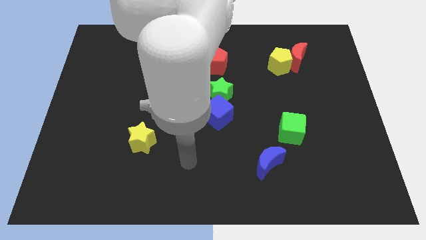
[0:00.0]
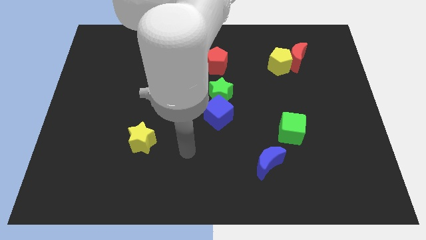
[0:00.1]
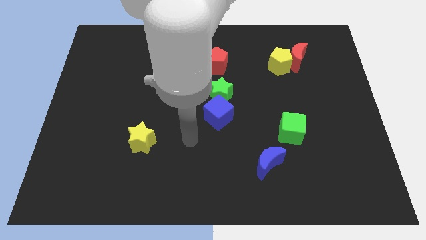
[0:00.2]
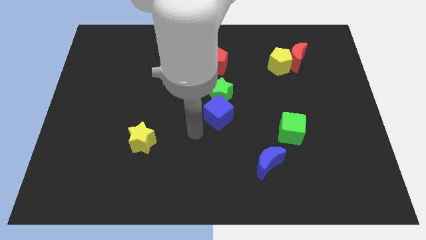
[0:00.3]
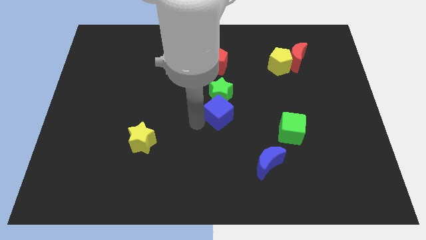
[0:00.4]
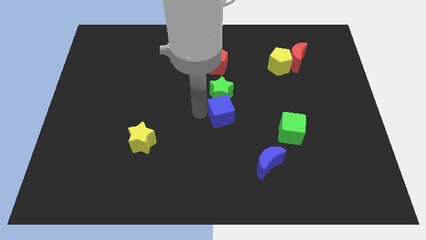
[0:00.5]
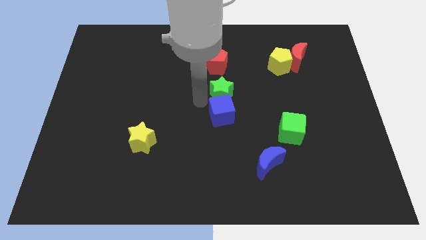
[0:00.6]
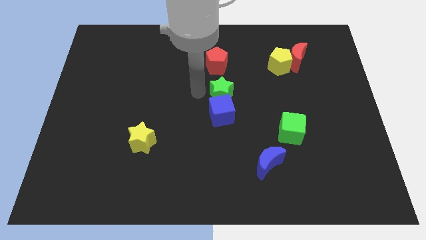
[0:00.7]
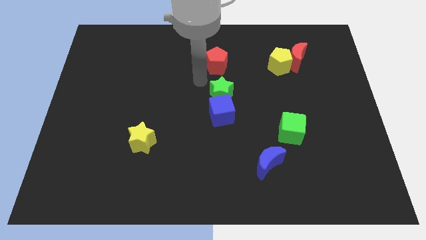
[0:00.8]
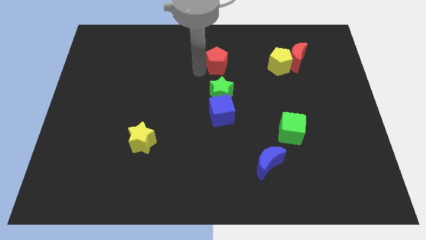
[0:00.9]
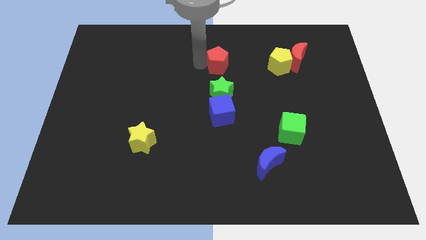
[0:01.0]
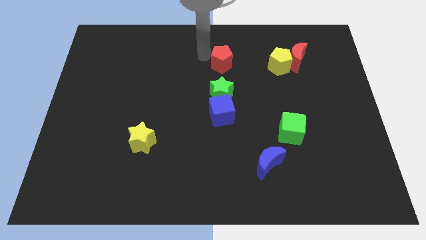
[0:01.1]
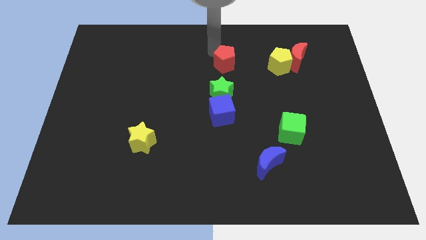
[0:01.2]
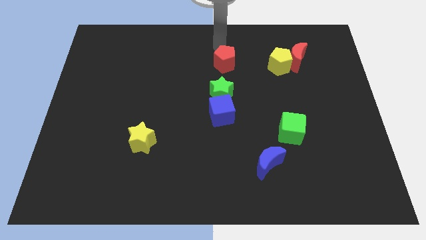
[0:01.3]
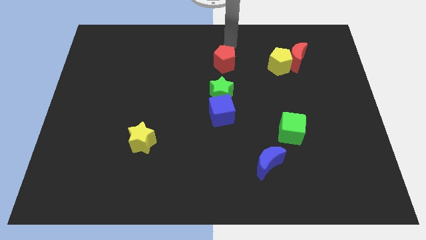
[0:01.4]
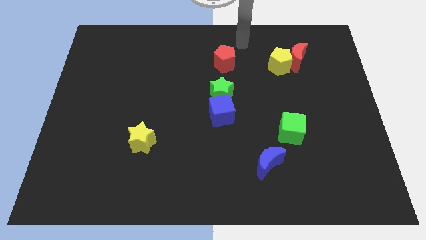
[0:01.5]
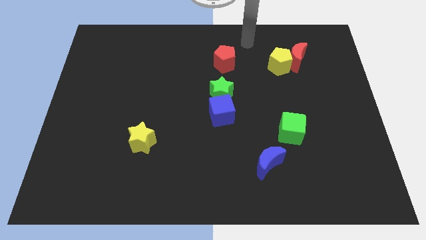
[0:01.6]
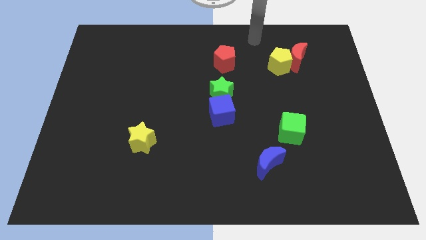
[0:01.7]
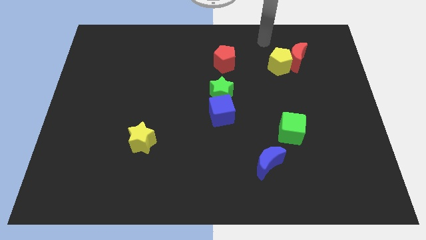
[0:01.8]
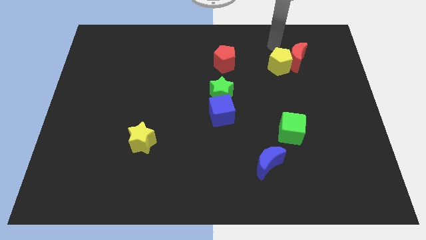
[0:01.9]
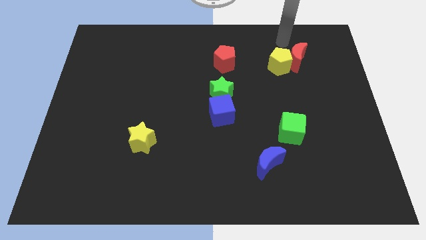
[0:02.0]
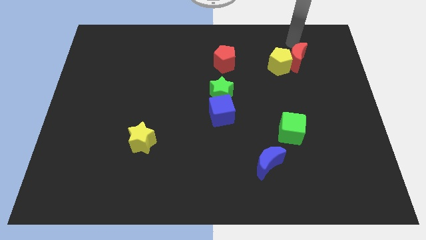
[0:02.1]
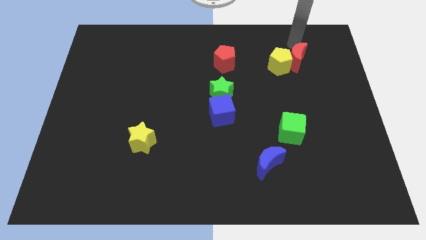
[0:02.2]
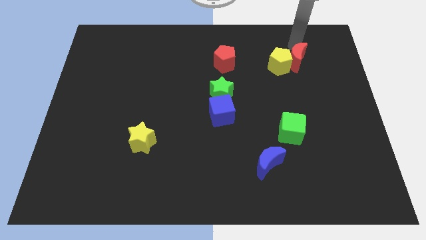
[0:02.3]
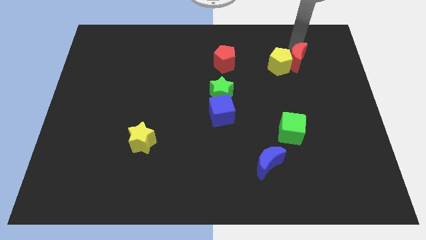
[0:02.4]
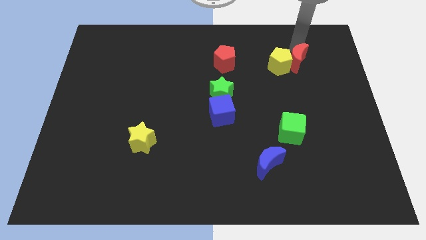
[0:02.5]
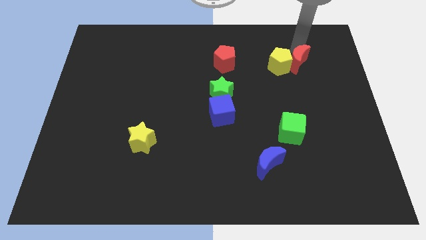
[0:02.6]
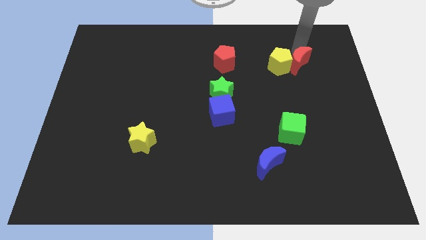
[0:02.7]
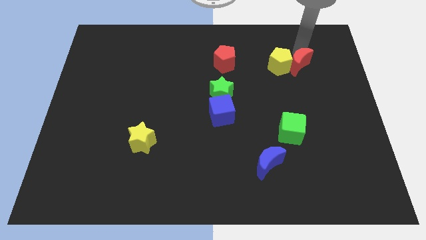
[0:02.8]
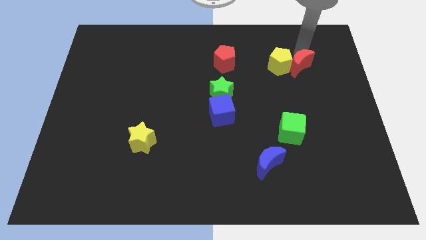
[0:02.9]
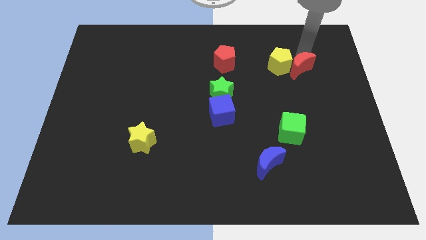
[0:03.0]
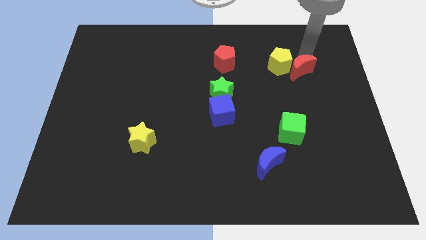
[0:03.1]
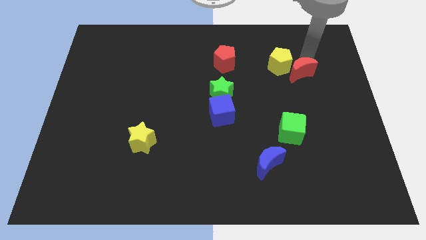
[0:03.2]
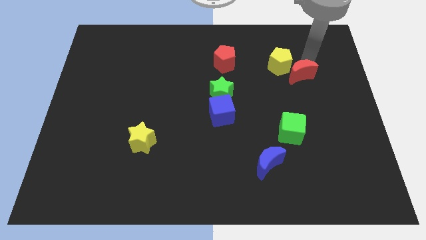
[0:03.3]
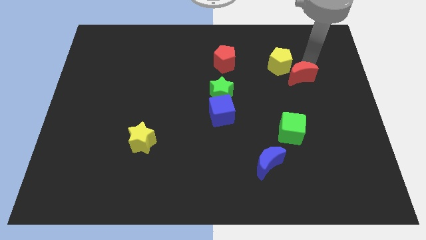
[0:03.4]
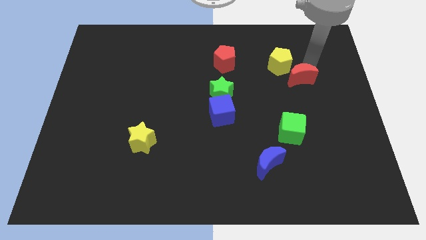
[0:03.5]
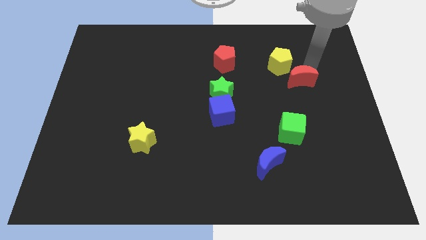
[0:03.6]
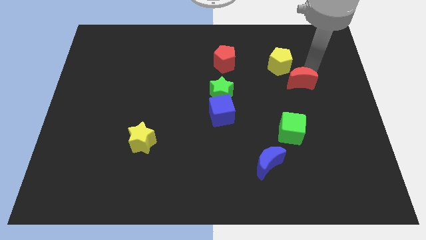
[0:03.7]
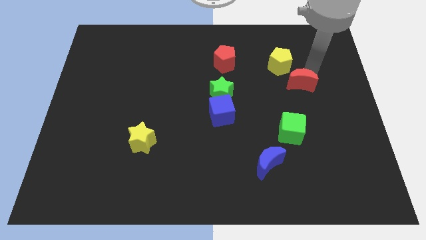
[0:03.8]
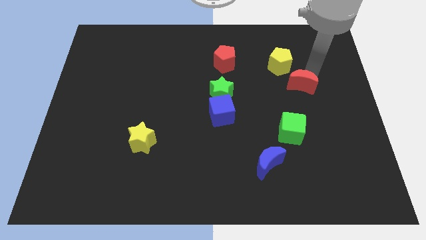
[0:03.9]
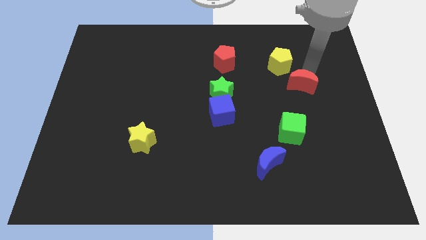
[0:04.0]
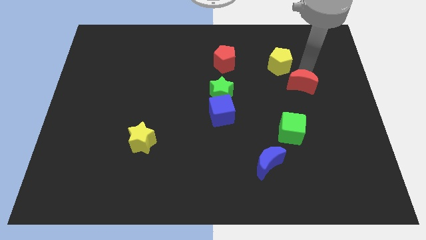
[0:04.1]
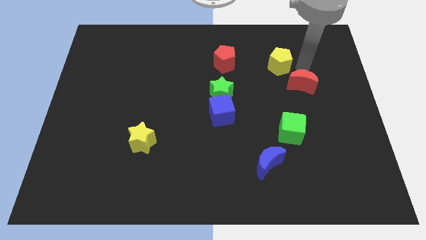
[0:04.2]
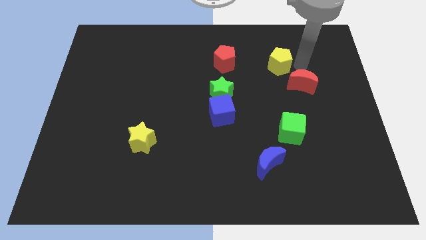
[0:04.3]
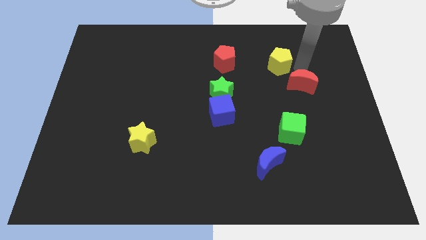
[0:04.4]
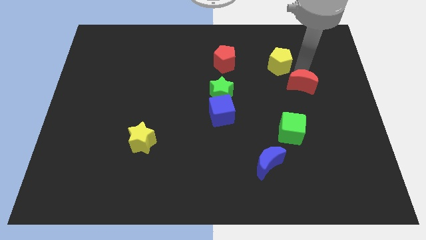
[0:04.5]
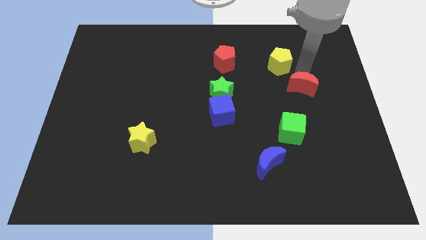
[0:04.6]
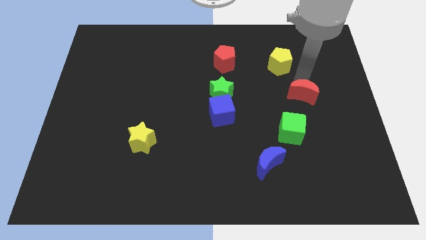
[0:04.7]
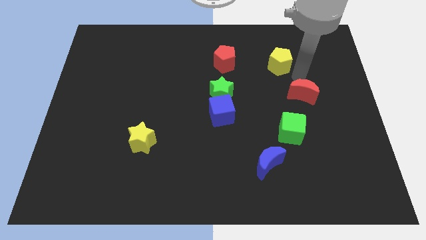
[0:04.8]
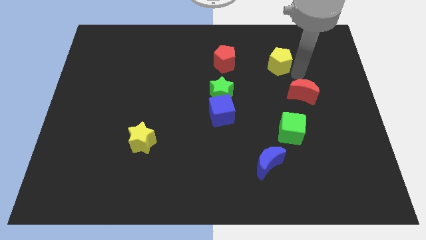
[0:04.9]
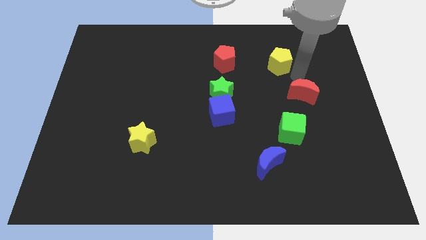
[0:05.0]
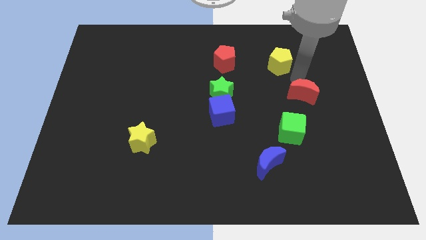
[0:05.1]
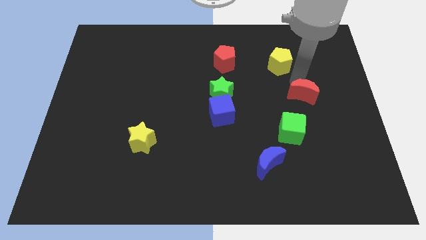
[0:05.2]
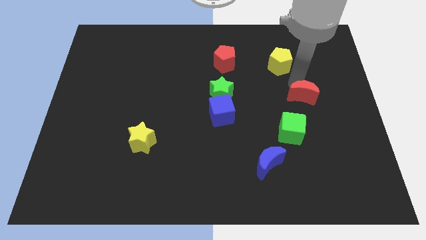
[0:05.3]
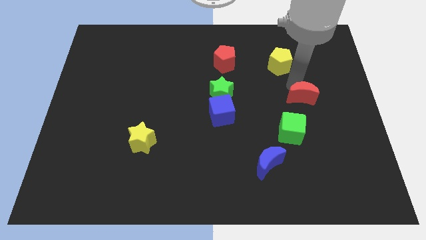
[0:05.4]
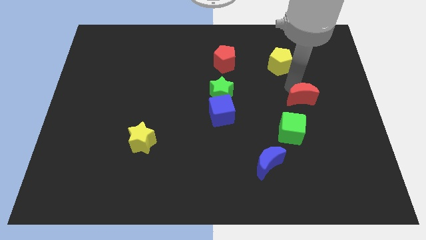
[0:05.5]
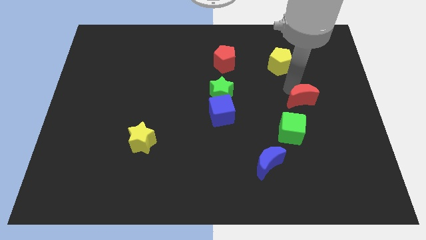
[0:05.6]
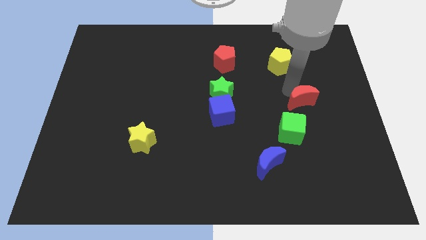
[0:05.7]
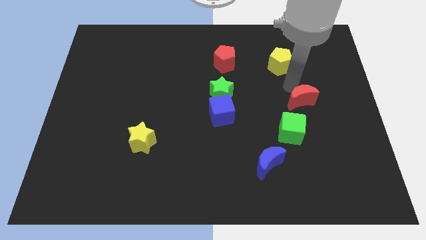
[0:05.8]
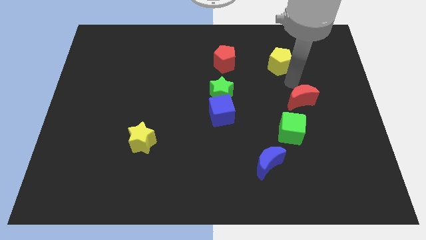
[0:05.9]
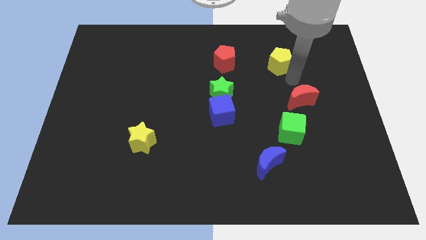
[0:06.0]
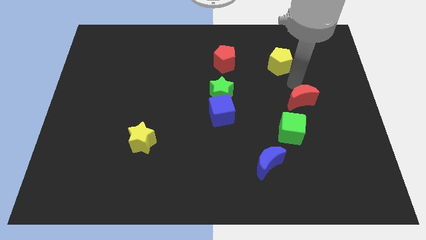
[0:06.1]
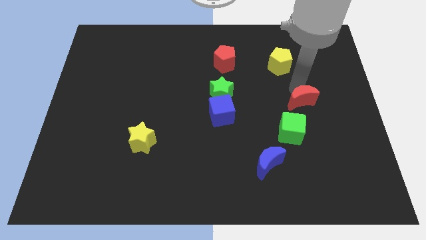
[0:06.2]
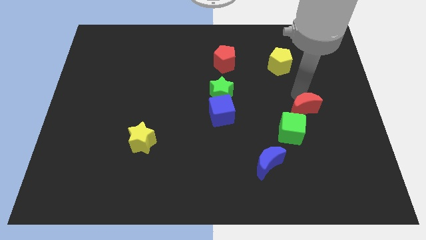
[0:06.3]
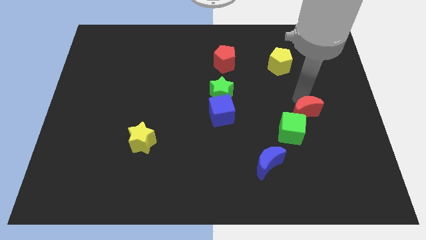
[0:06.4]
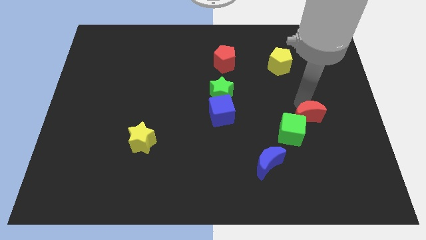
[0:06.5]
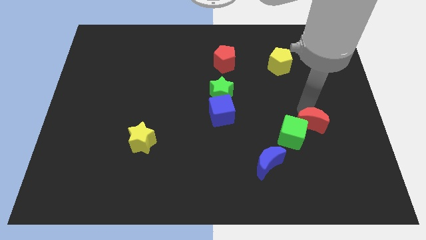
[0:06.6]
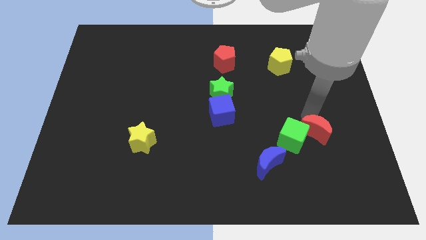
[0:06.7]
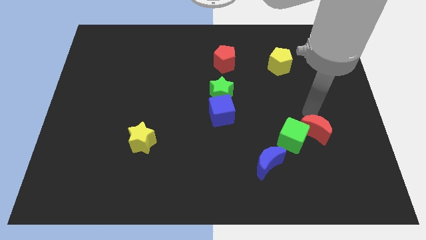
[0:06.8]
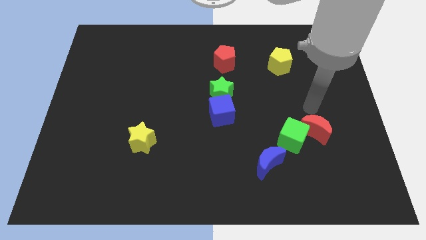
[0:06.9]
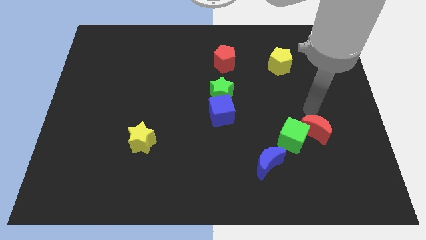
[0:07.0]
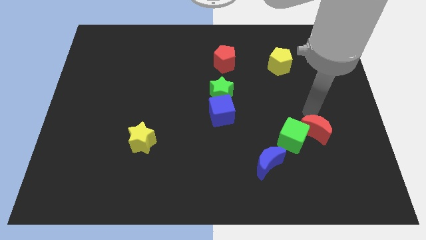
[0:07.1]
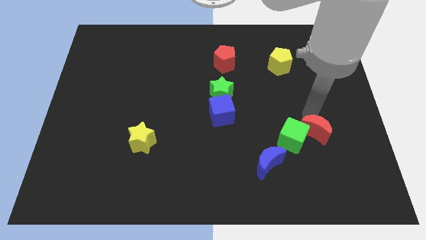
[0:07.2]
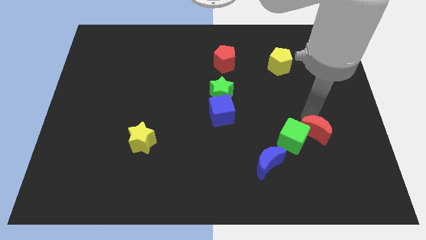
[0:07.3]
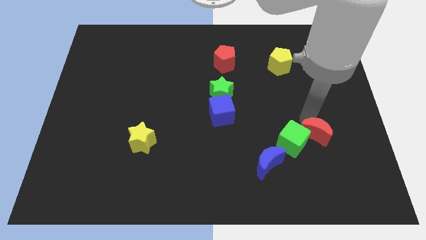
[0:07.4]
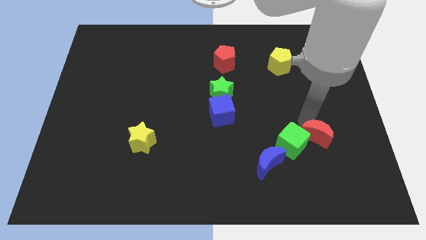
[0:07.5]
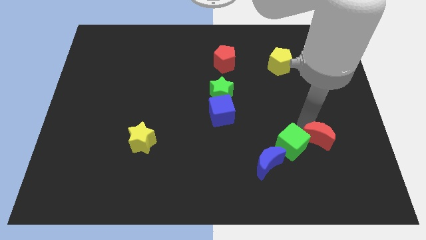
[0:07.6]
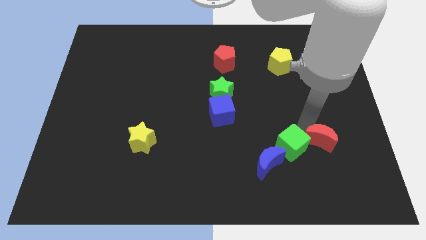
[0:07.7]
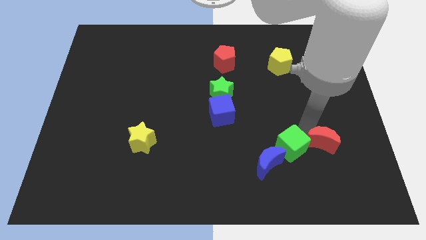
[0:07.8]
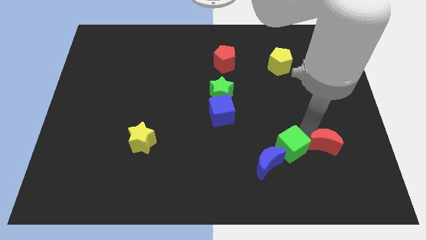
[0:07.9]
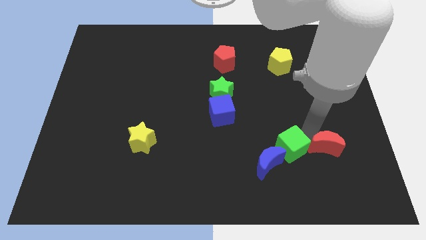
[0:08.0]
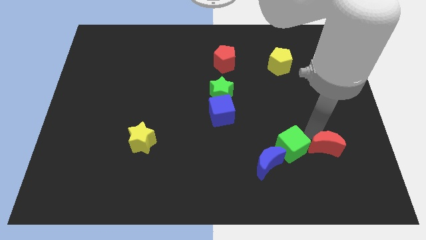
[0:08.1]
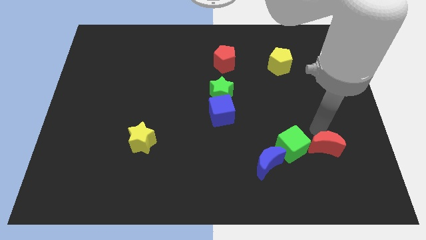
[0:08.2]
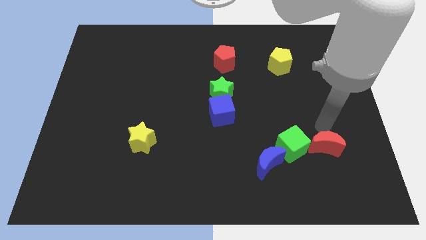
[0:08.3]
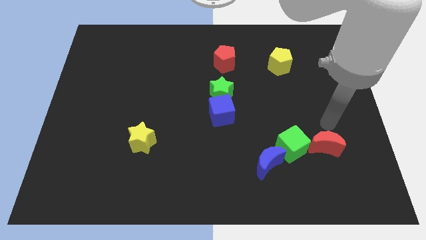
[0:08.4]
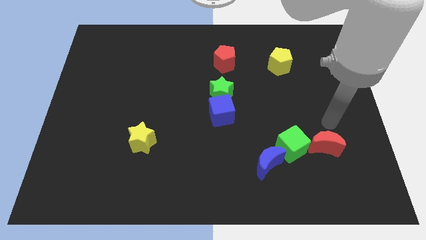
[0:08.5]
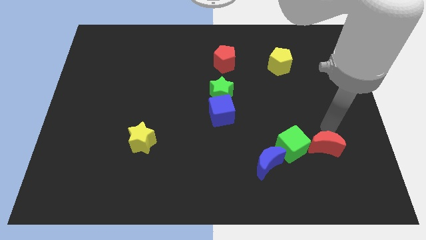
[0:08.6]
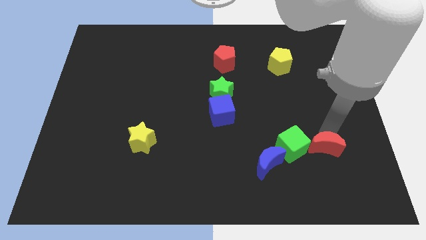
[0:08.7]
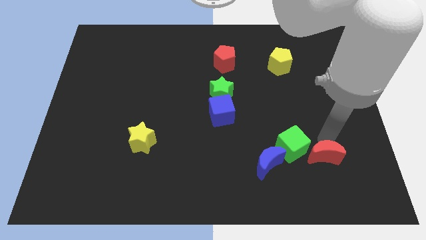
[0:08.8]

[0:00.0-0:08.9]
move the red moon to the bottom right of the green cube
